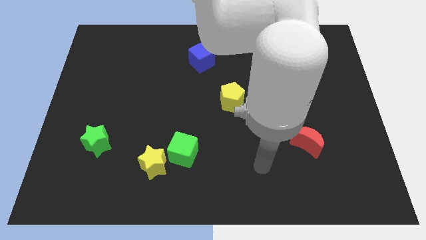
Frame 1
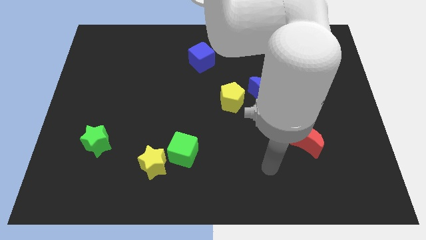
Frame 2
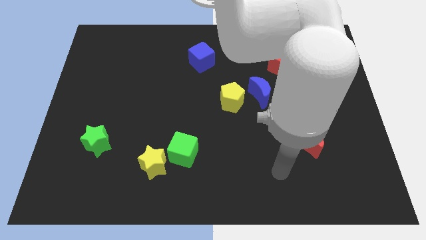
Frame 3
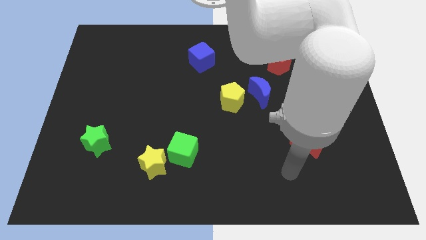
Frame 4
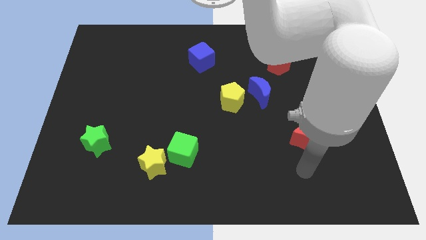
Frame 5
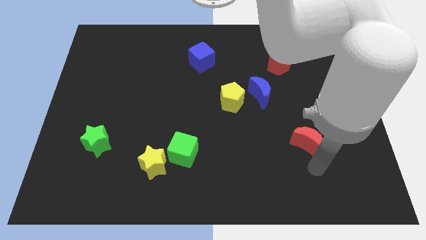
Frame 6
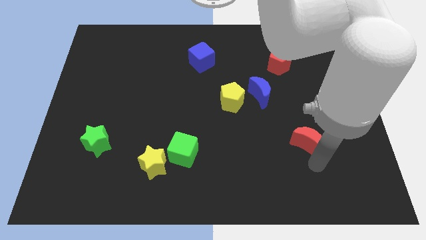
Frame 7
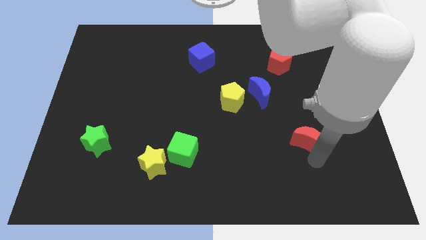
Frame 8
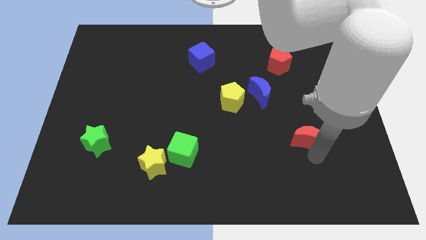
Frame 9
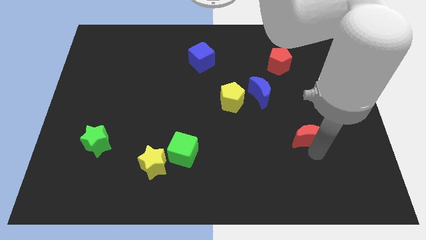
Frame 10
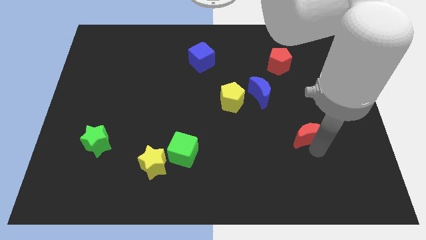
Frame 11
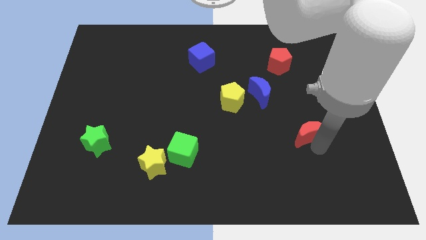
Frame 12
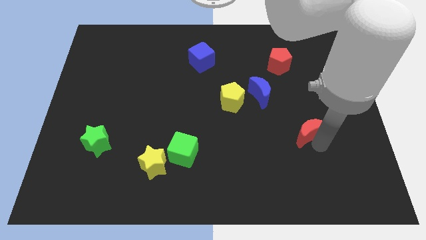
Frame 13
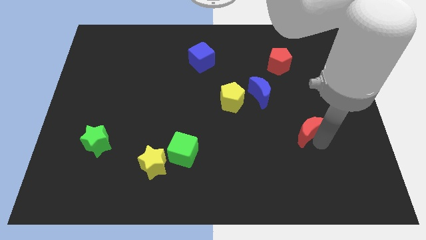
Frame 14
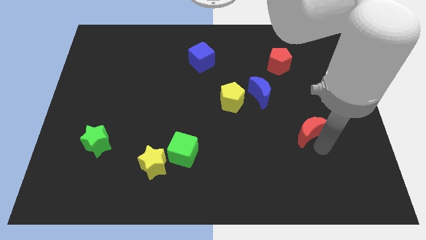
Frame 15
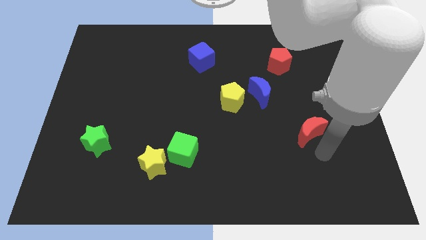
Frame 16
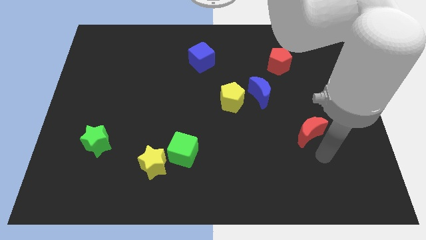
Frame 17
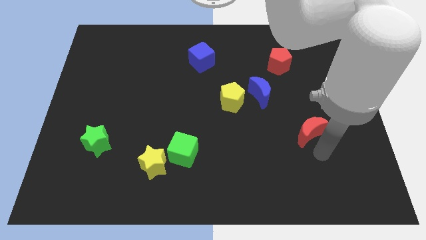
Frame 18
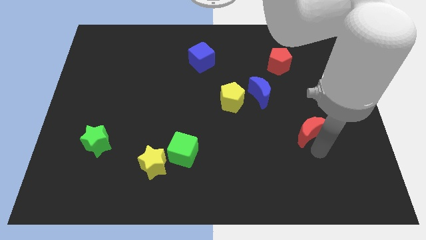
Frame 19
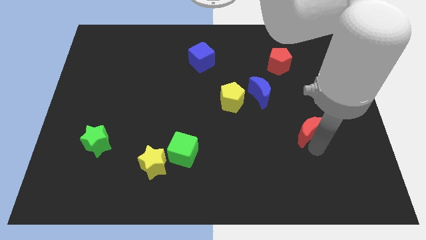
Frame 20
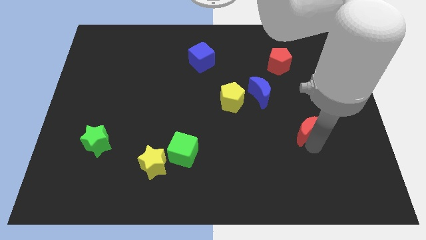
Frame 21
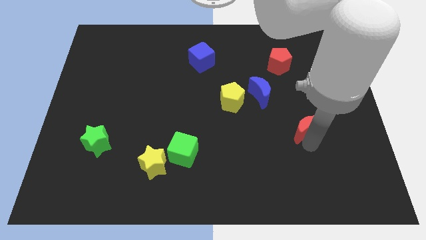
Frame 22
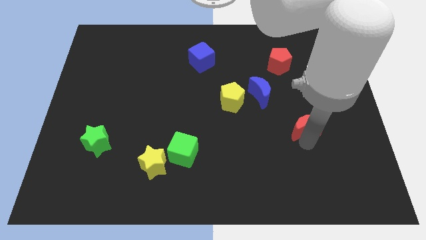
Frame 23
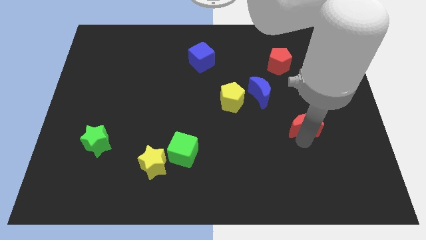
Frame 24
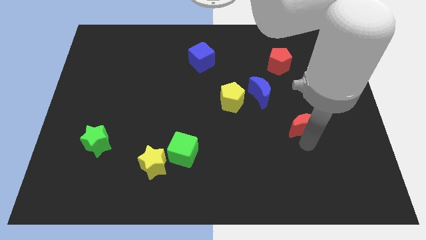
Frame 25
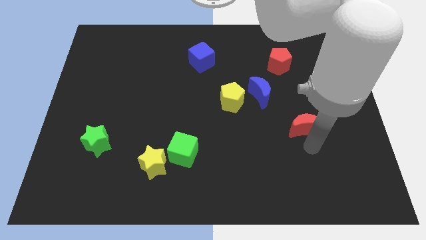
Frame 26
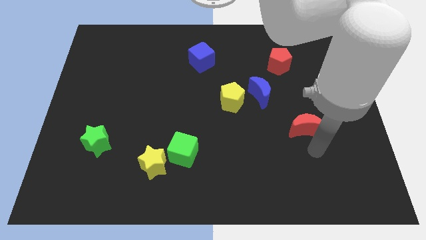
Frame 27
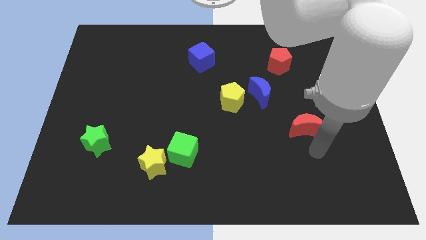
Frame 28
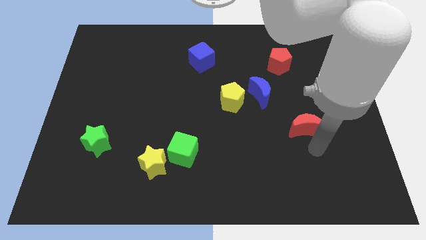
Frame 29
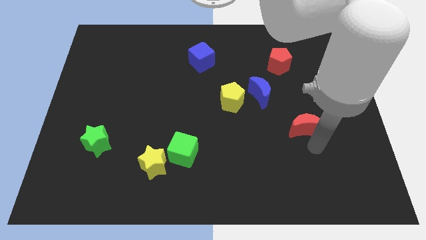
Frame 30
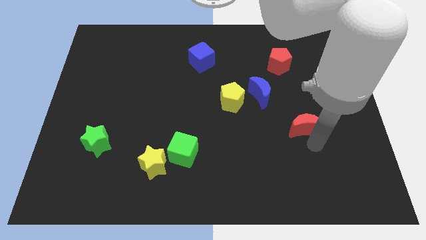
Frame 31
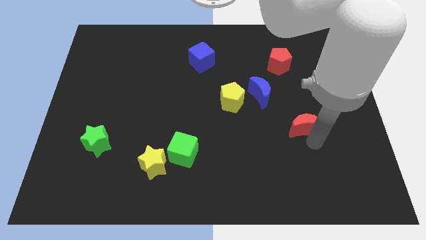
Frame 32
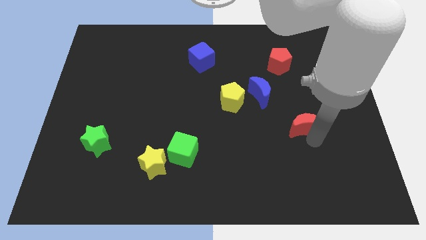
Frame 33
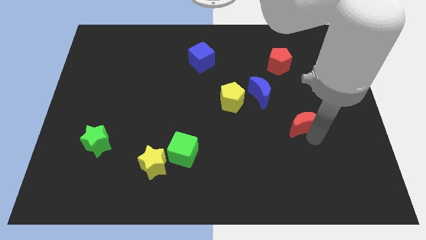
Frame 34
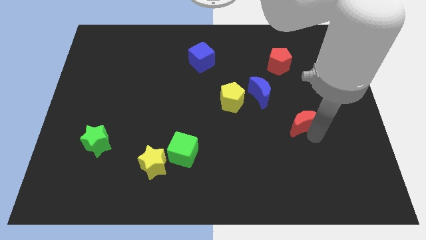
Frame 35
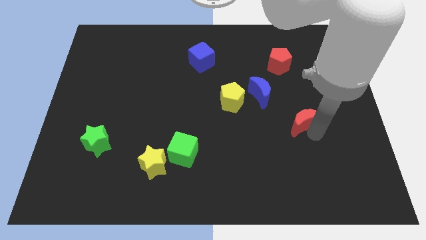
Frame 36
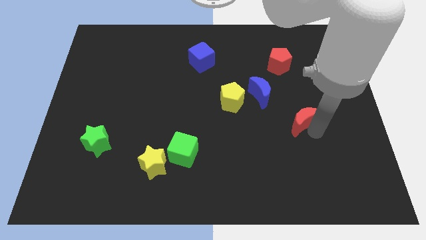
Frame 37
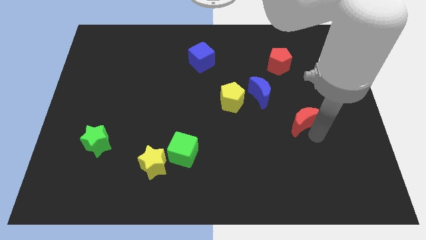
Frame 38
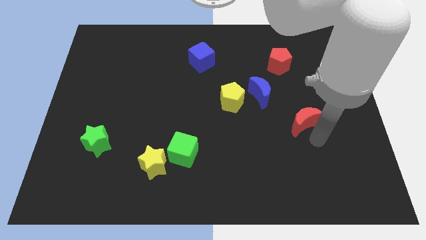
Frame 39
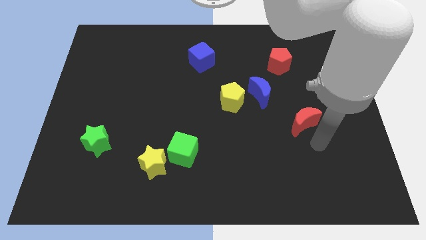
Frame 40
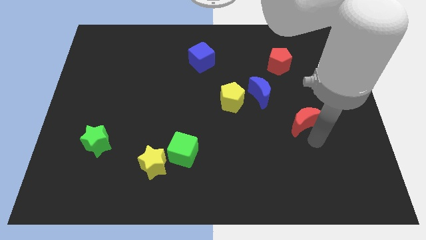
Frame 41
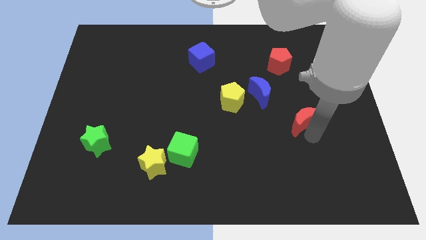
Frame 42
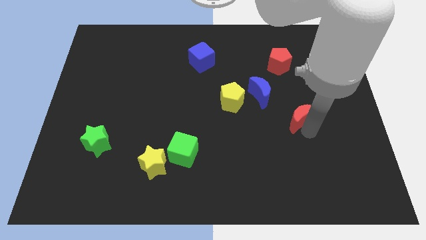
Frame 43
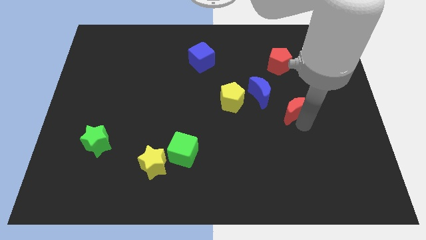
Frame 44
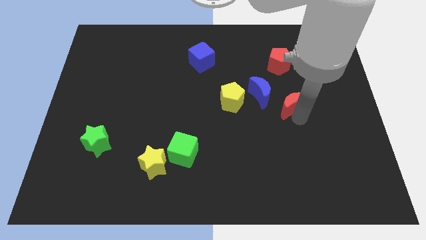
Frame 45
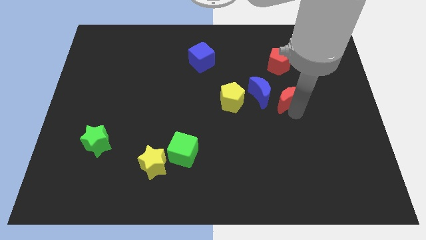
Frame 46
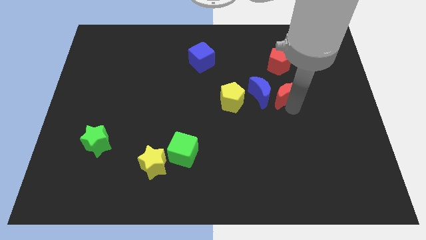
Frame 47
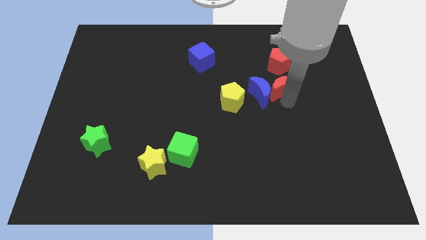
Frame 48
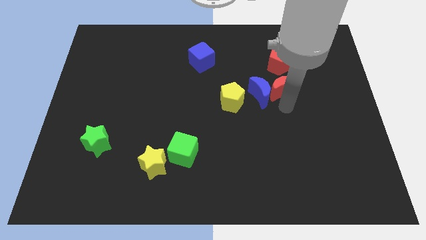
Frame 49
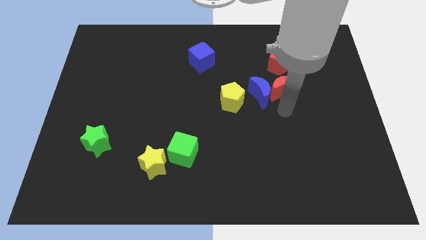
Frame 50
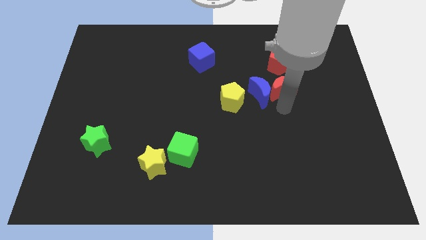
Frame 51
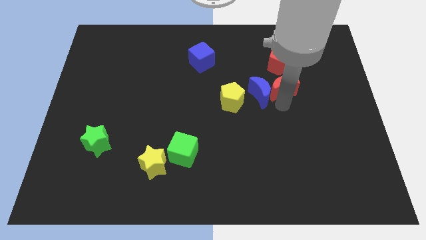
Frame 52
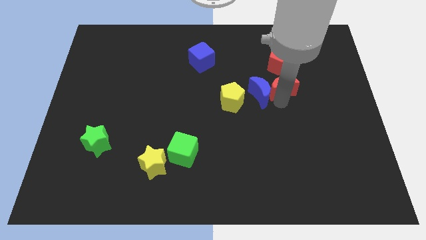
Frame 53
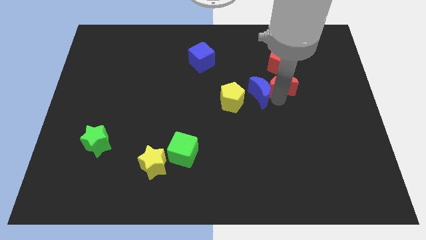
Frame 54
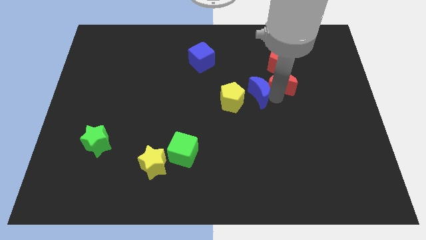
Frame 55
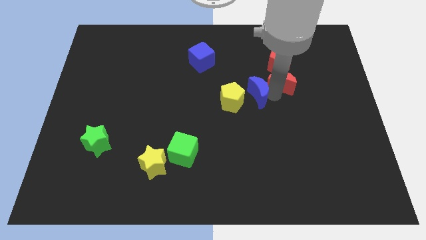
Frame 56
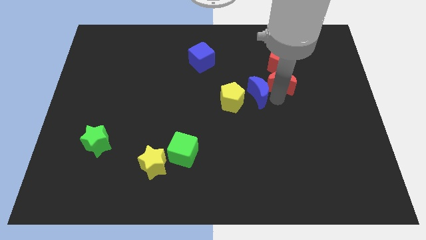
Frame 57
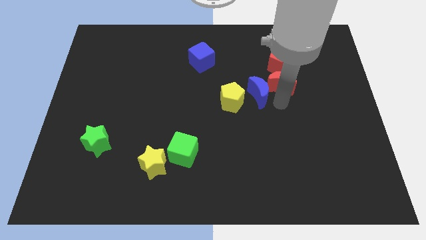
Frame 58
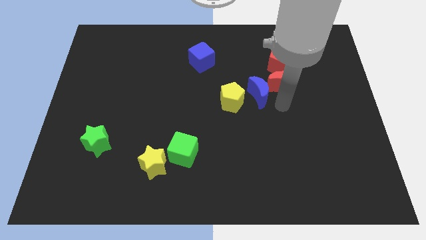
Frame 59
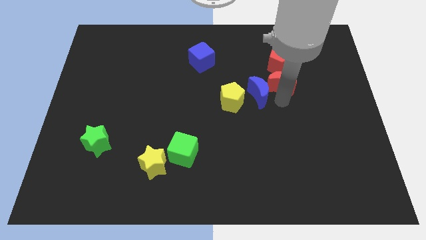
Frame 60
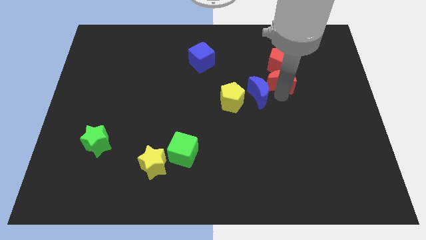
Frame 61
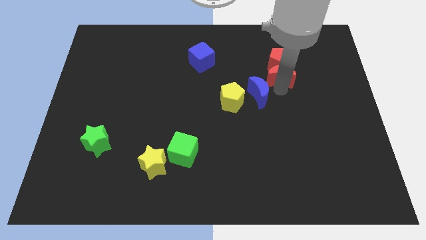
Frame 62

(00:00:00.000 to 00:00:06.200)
slide the red moon close to the red pentagon

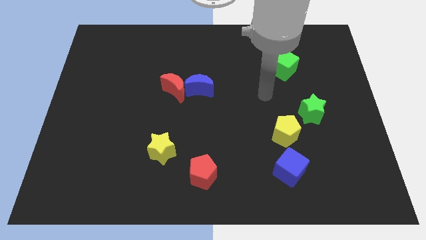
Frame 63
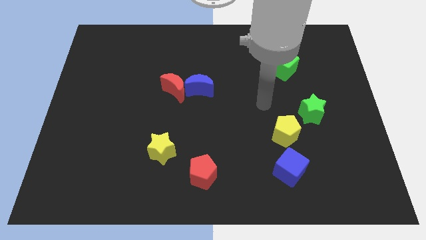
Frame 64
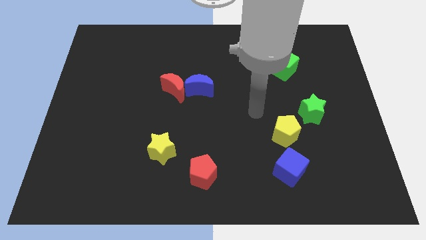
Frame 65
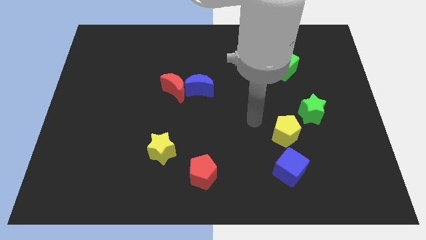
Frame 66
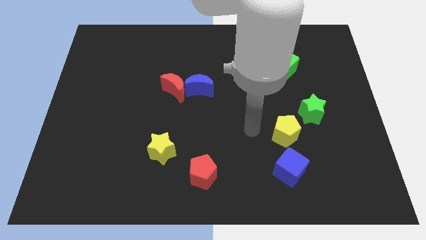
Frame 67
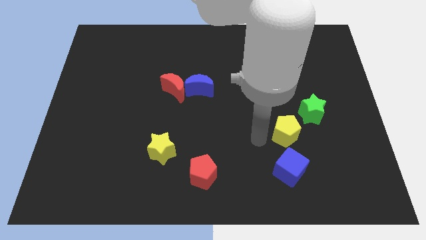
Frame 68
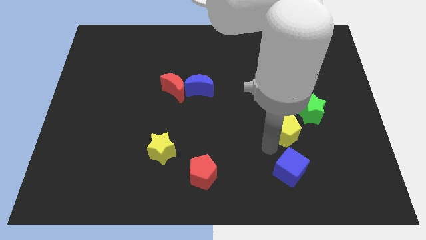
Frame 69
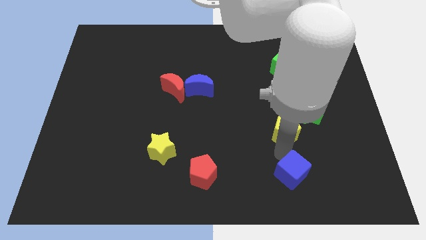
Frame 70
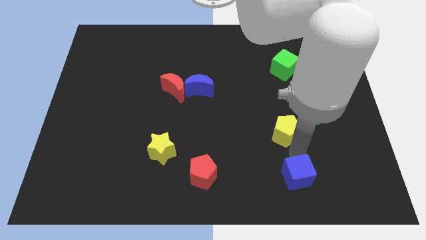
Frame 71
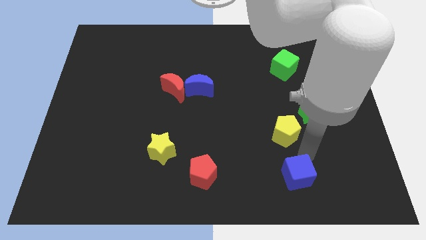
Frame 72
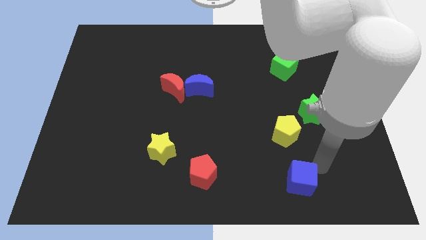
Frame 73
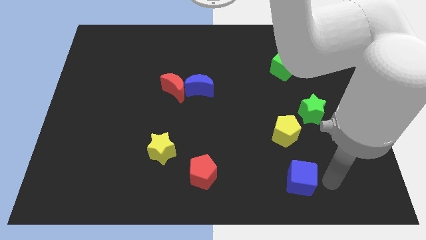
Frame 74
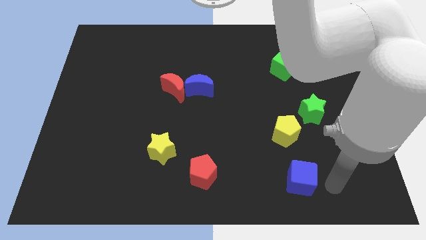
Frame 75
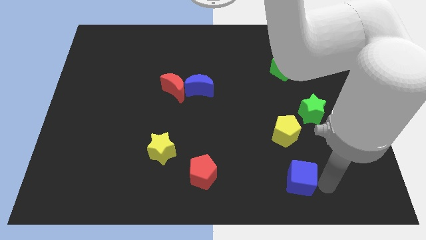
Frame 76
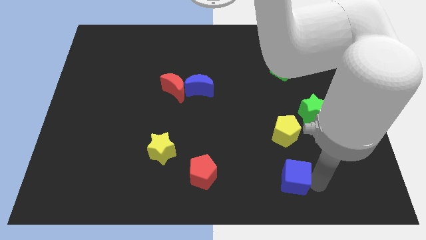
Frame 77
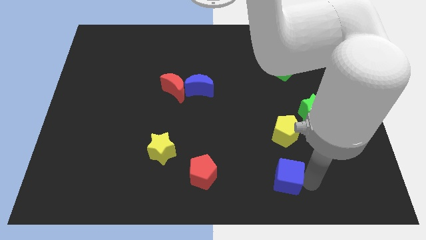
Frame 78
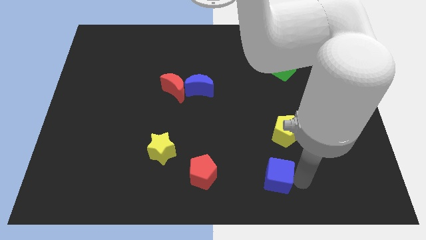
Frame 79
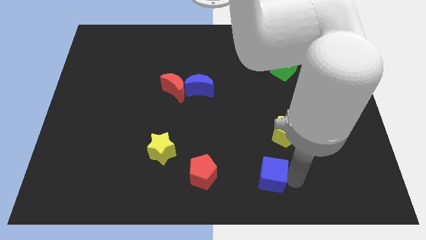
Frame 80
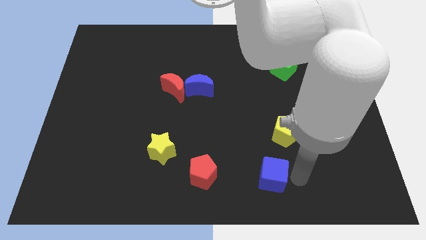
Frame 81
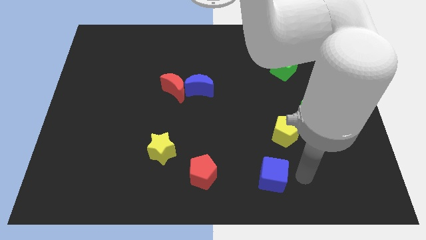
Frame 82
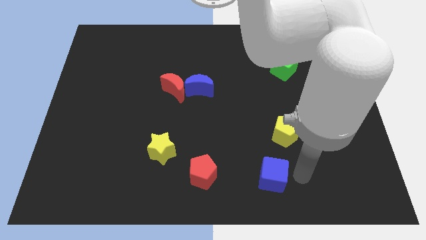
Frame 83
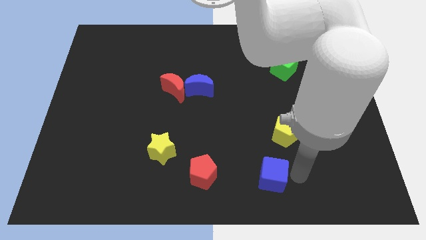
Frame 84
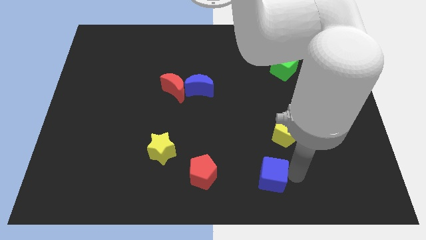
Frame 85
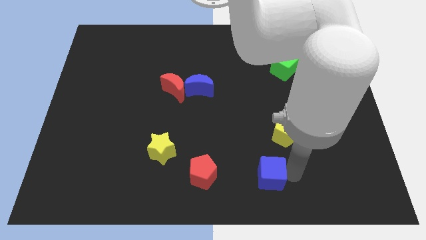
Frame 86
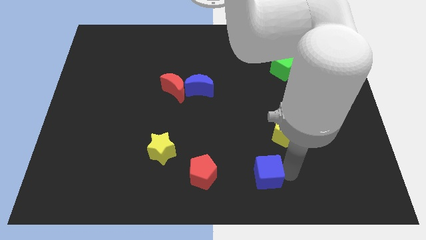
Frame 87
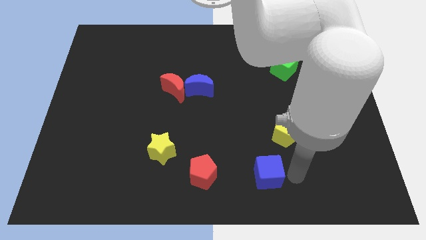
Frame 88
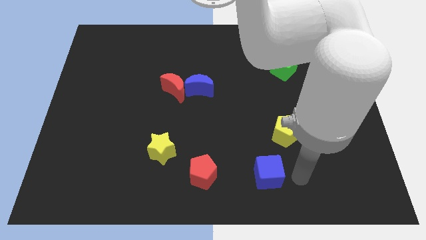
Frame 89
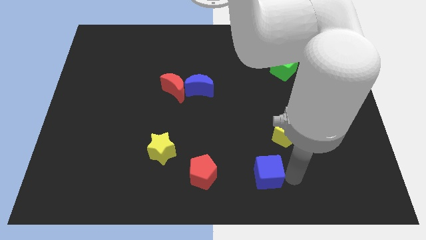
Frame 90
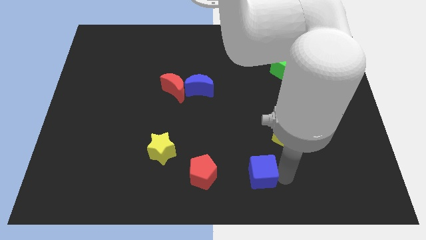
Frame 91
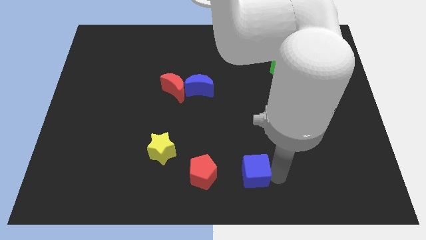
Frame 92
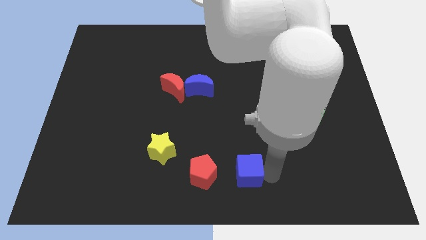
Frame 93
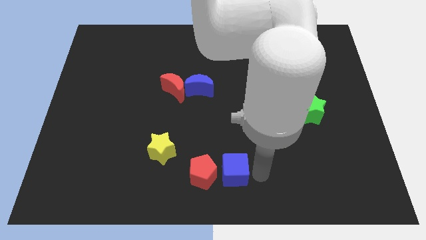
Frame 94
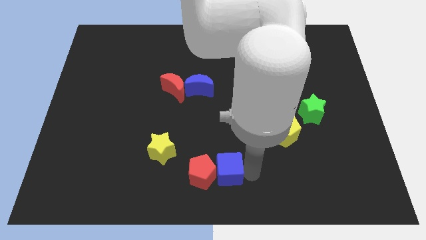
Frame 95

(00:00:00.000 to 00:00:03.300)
push the blue cube next to the red pentagon
